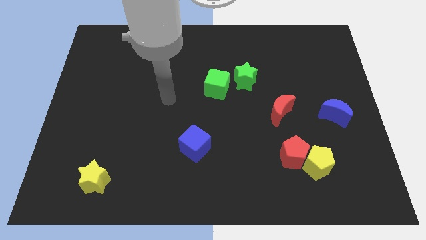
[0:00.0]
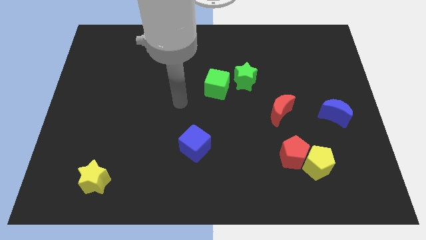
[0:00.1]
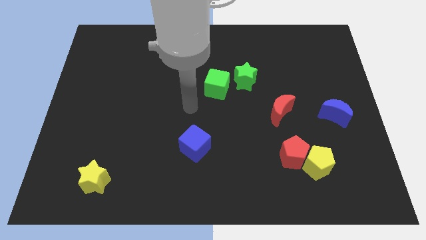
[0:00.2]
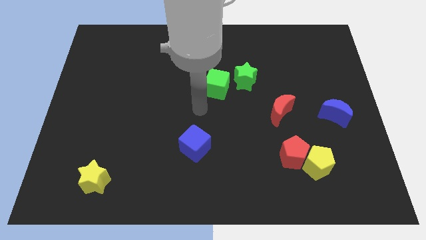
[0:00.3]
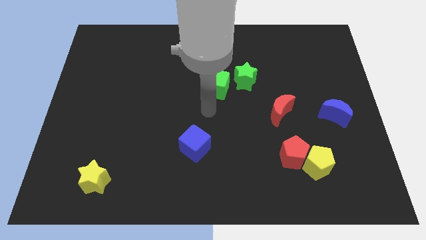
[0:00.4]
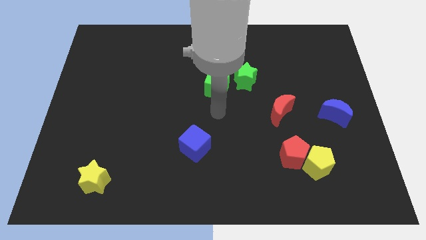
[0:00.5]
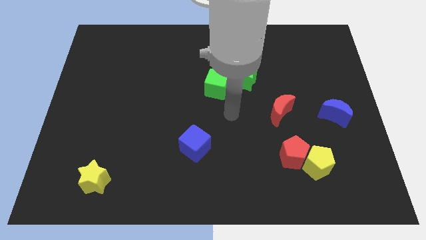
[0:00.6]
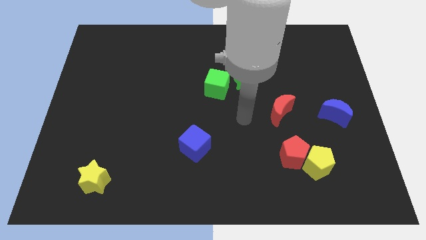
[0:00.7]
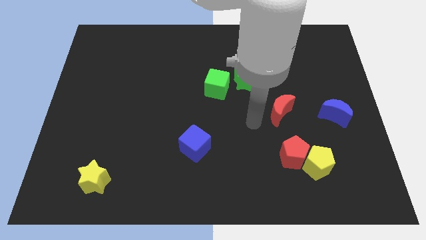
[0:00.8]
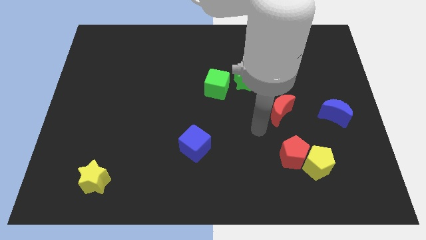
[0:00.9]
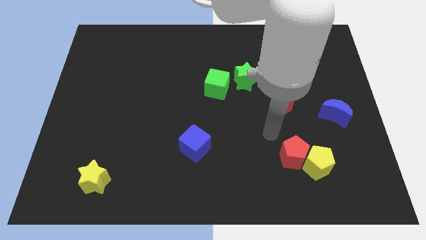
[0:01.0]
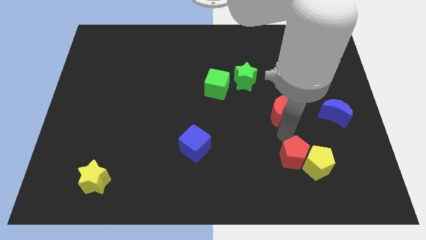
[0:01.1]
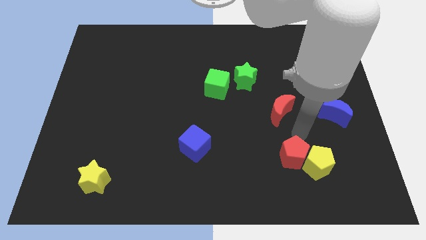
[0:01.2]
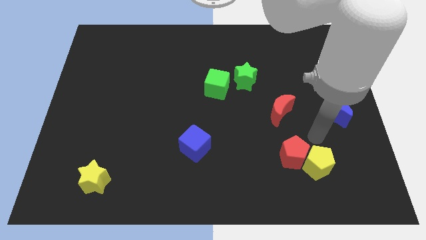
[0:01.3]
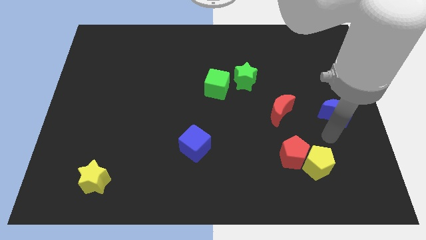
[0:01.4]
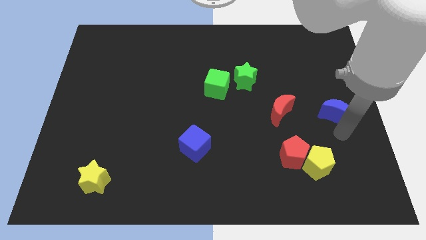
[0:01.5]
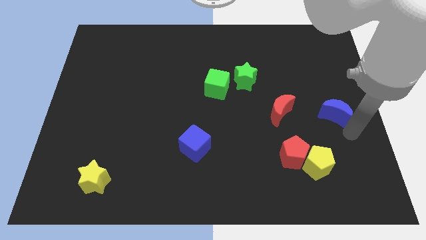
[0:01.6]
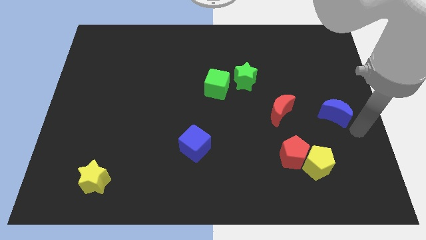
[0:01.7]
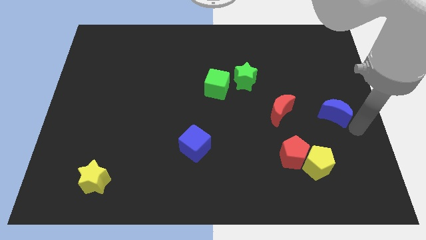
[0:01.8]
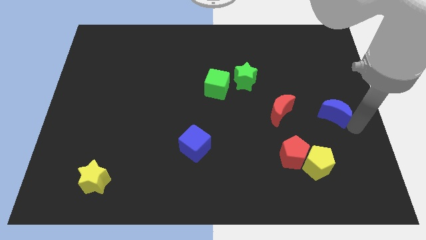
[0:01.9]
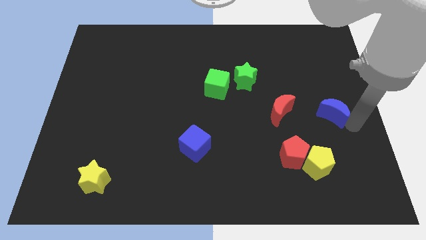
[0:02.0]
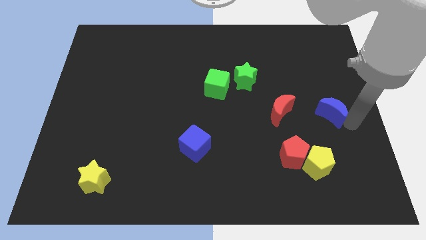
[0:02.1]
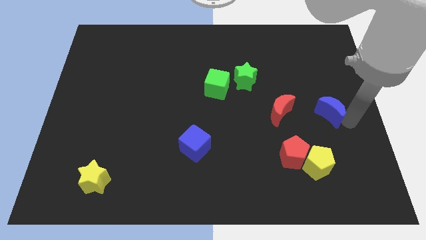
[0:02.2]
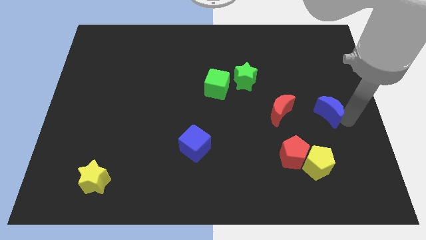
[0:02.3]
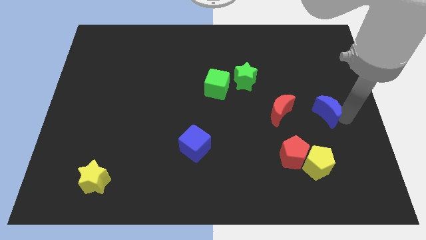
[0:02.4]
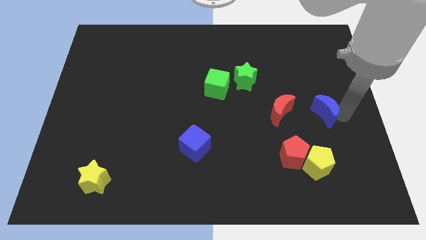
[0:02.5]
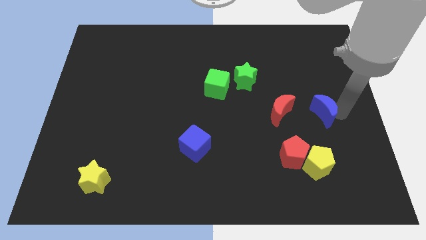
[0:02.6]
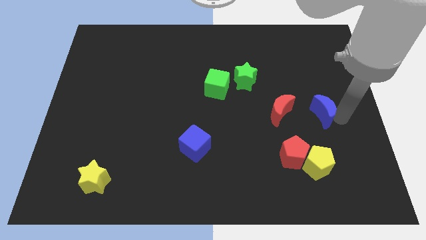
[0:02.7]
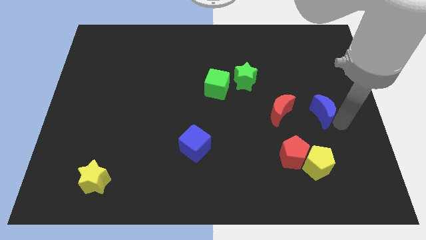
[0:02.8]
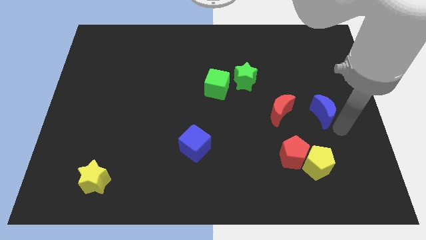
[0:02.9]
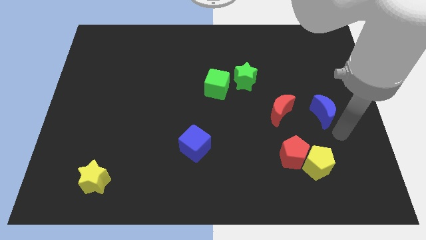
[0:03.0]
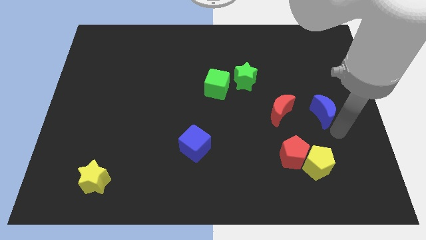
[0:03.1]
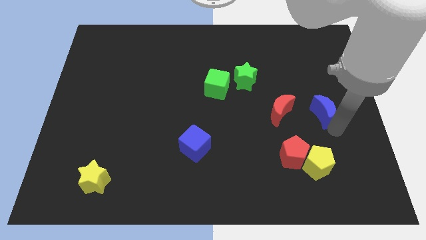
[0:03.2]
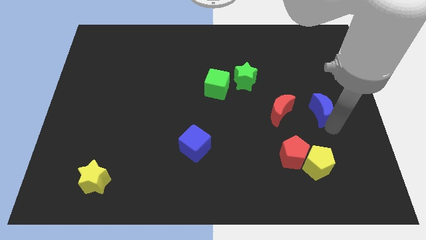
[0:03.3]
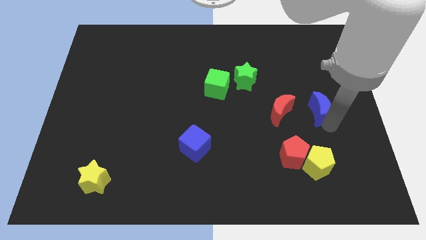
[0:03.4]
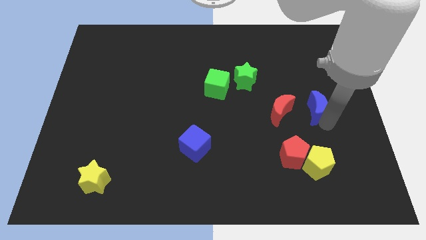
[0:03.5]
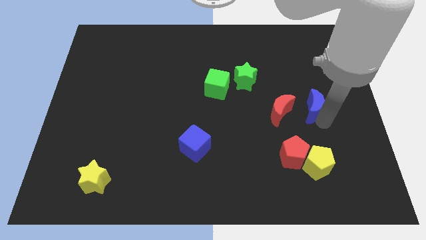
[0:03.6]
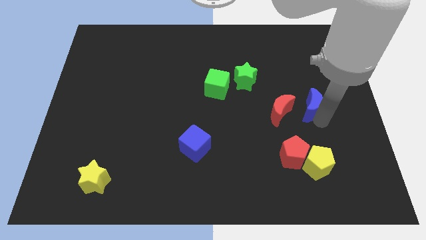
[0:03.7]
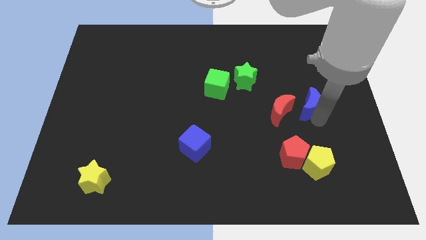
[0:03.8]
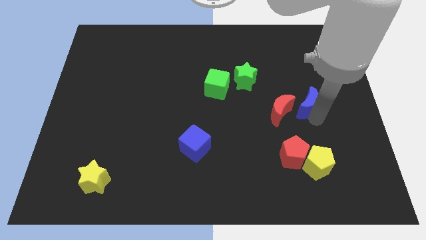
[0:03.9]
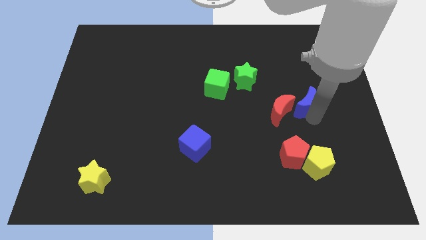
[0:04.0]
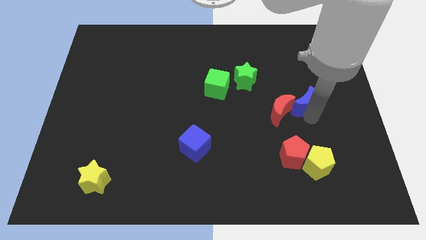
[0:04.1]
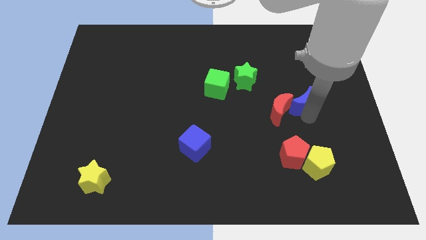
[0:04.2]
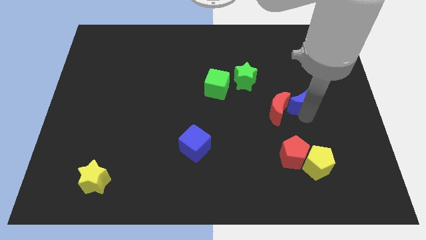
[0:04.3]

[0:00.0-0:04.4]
slightly push the blue moon upwards and left diagonally

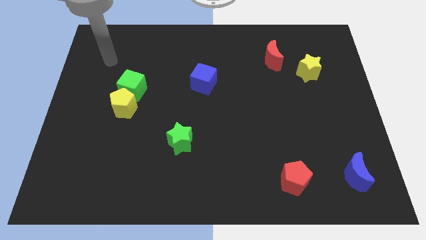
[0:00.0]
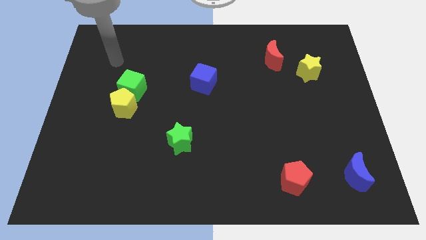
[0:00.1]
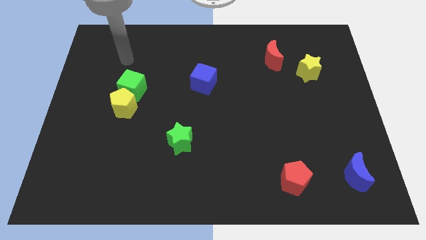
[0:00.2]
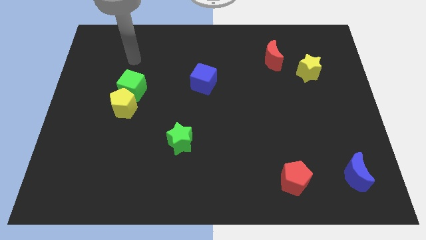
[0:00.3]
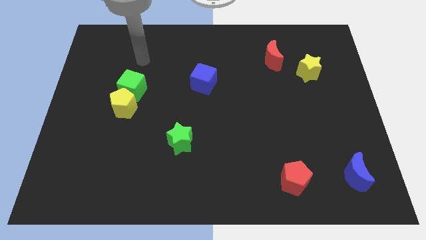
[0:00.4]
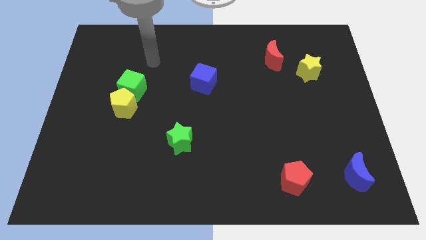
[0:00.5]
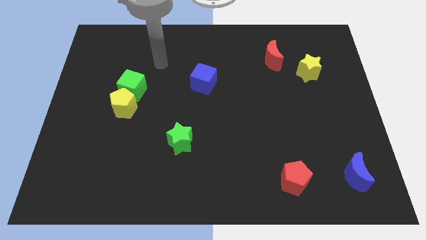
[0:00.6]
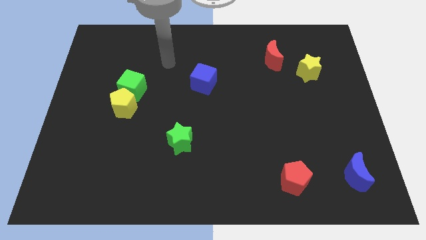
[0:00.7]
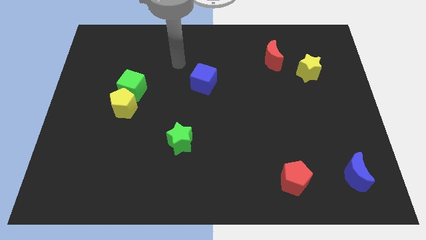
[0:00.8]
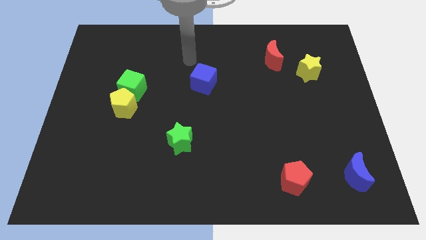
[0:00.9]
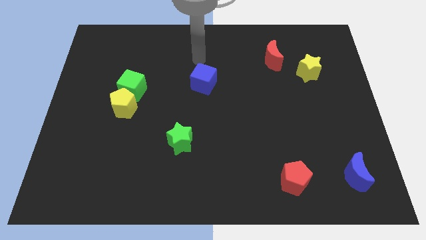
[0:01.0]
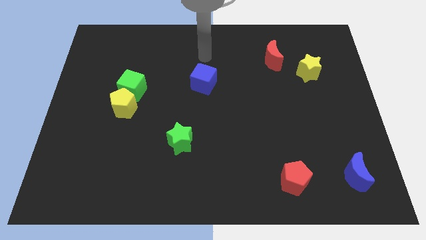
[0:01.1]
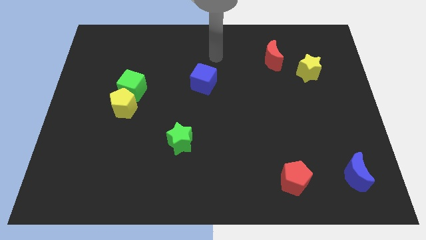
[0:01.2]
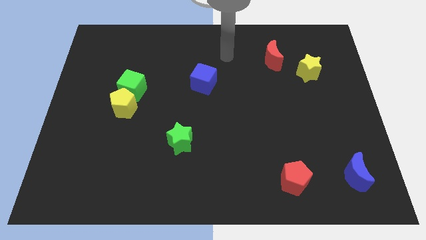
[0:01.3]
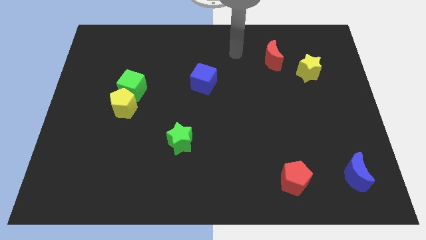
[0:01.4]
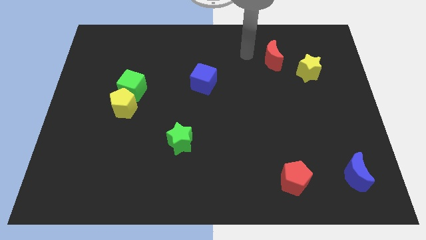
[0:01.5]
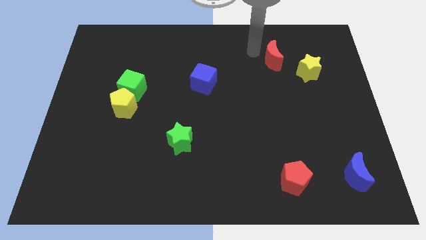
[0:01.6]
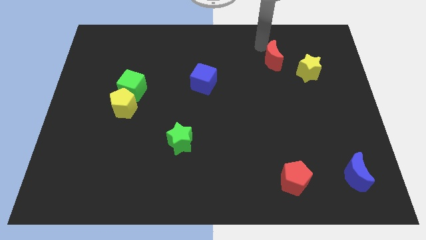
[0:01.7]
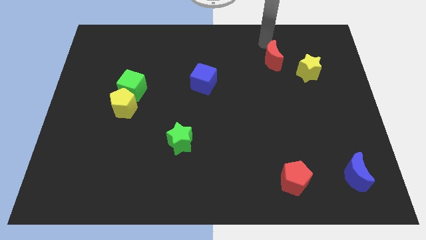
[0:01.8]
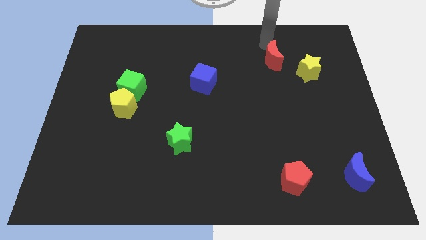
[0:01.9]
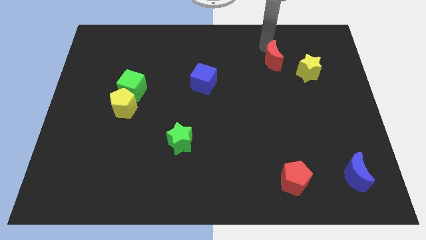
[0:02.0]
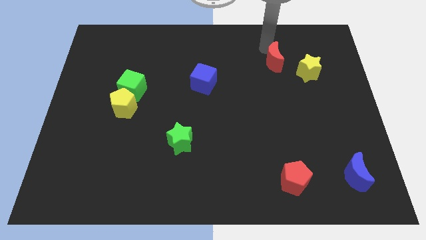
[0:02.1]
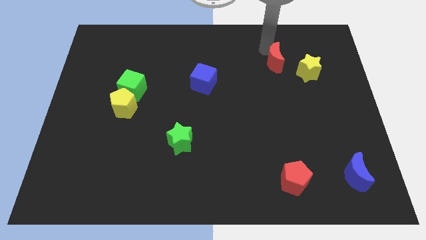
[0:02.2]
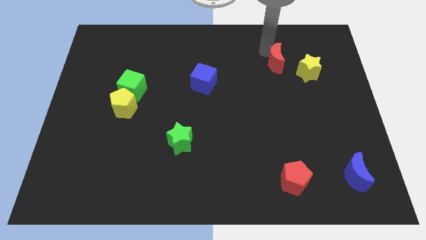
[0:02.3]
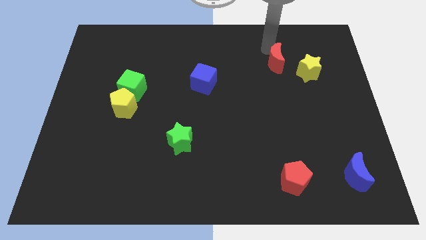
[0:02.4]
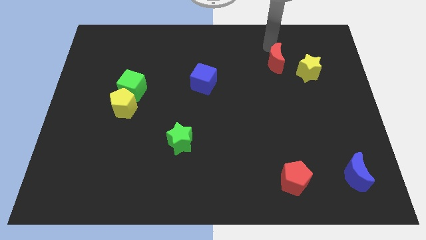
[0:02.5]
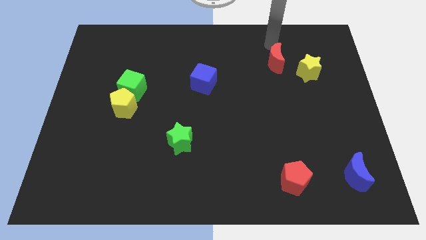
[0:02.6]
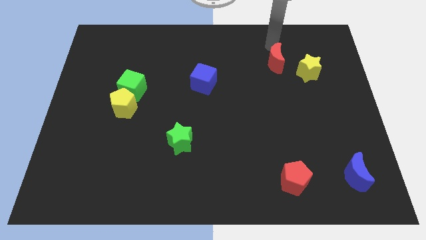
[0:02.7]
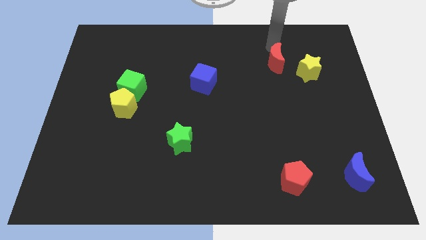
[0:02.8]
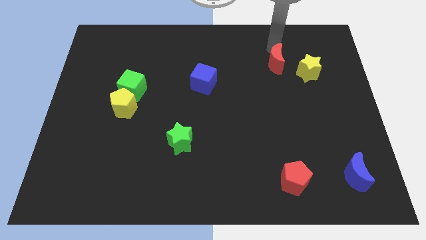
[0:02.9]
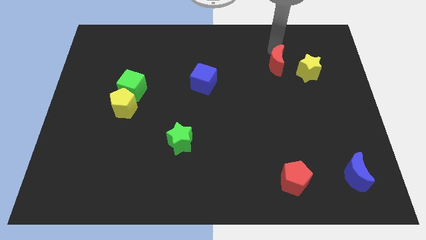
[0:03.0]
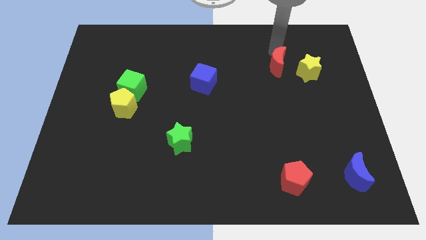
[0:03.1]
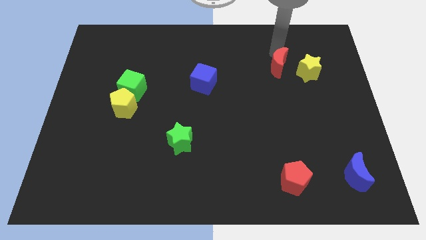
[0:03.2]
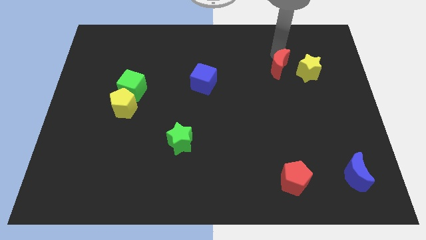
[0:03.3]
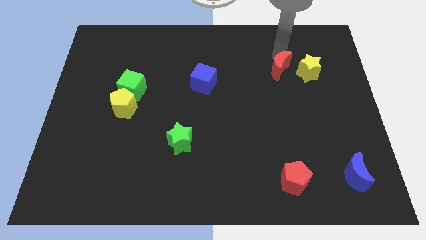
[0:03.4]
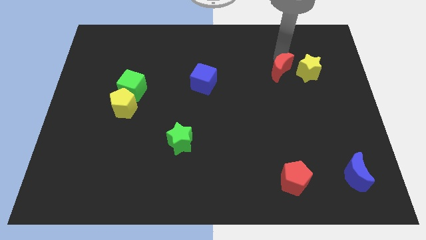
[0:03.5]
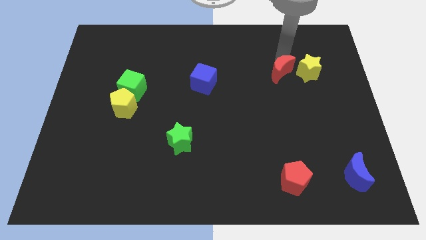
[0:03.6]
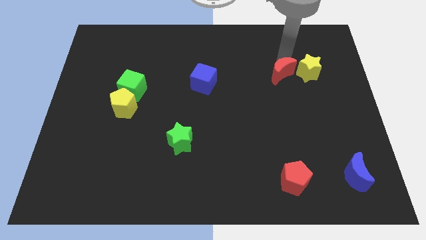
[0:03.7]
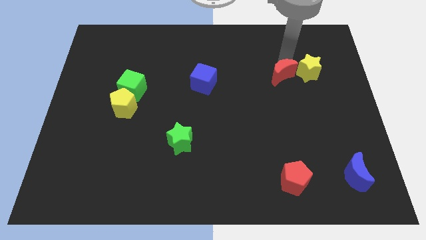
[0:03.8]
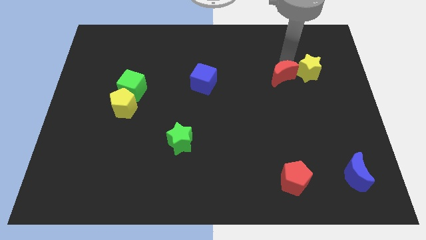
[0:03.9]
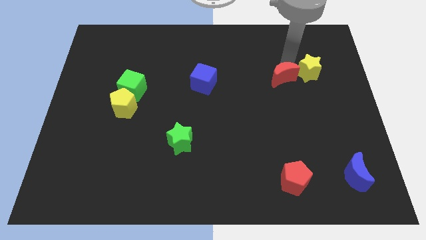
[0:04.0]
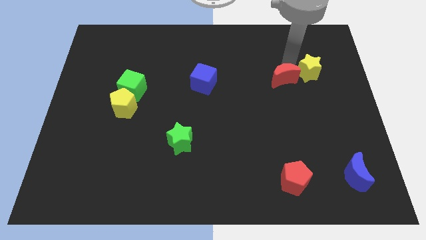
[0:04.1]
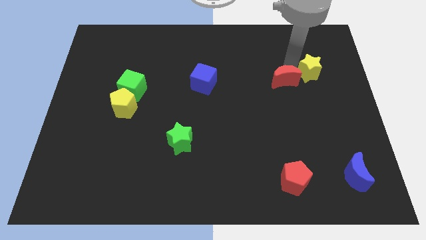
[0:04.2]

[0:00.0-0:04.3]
move the red moon a little down
